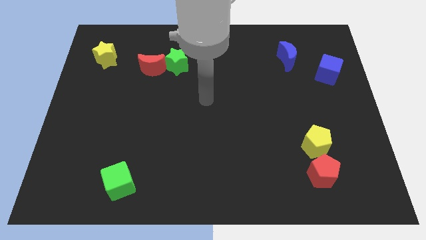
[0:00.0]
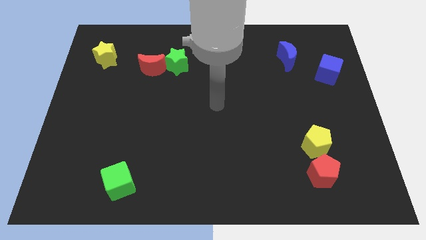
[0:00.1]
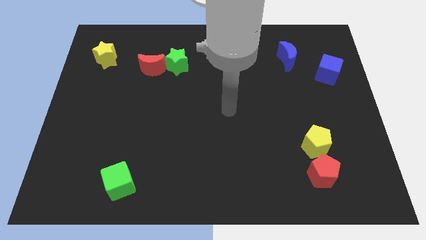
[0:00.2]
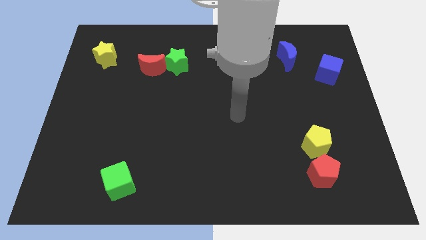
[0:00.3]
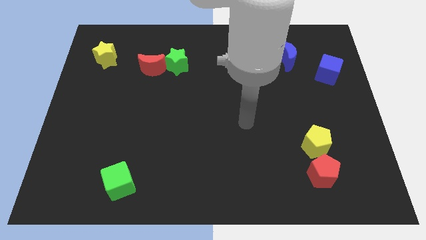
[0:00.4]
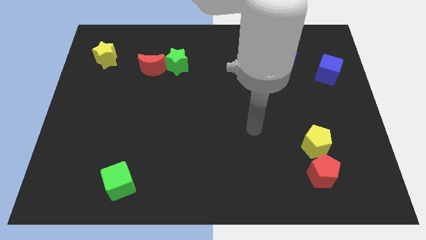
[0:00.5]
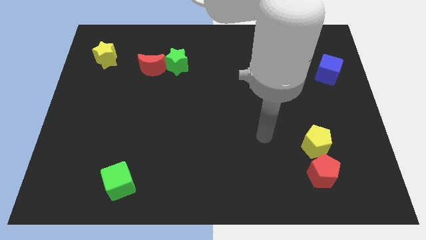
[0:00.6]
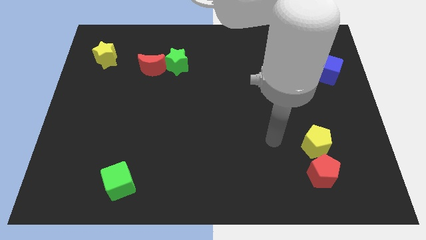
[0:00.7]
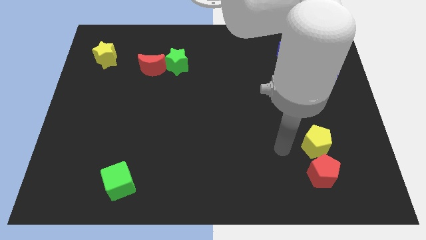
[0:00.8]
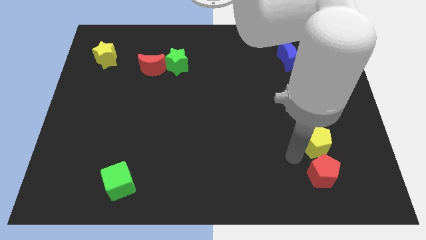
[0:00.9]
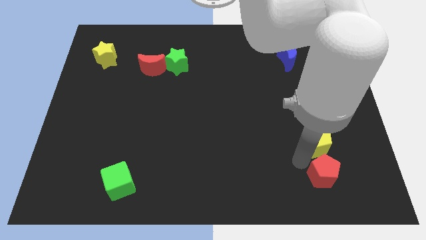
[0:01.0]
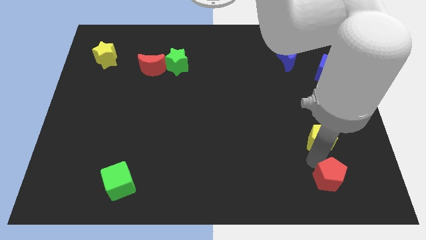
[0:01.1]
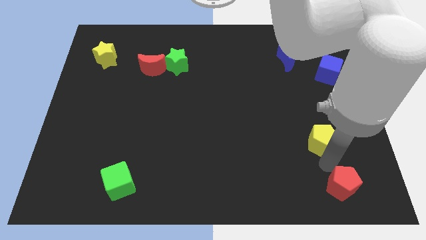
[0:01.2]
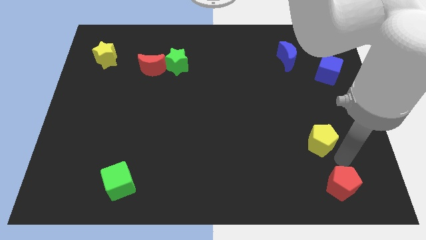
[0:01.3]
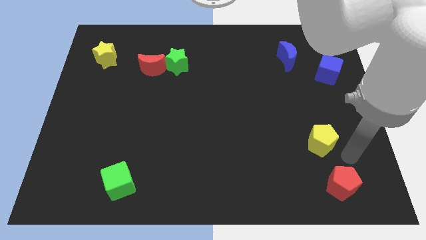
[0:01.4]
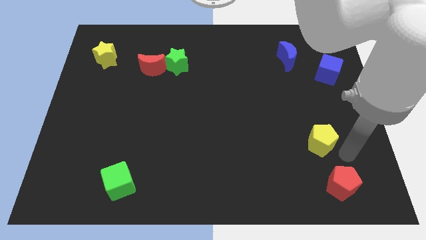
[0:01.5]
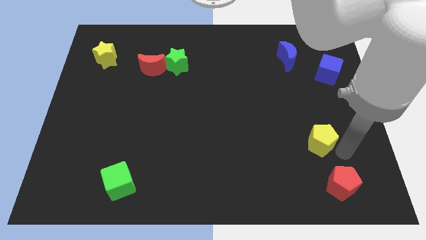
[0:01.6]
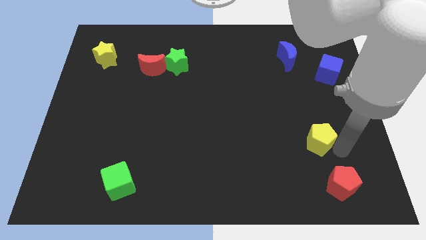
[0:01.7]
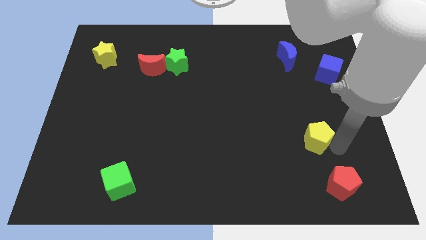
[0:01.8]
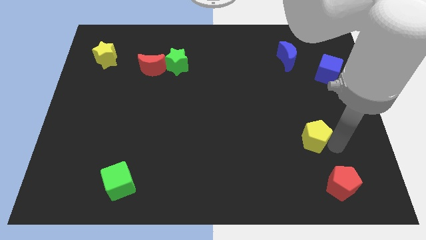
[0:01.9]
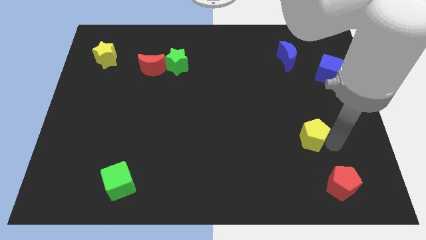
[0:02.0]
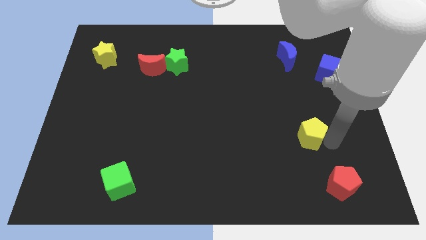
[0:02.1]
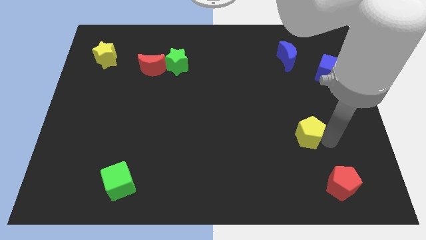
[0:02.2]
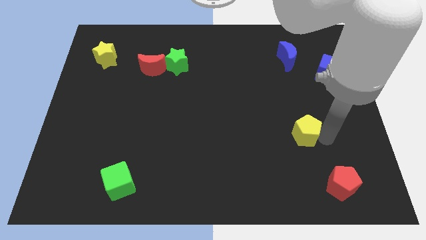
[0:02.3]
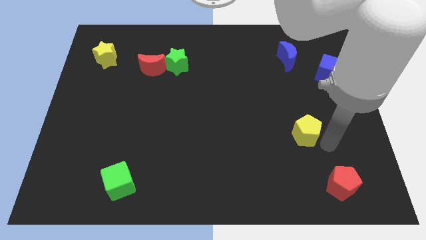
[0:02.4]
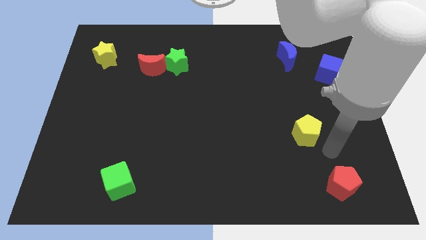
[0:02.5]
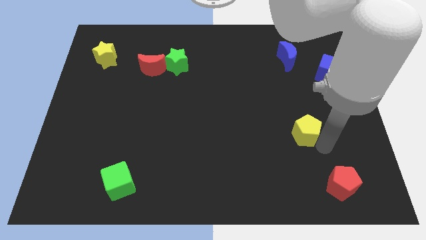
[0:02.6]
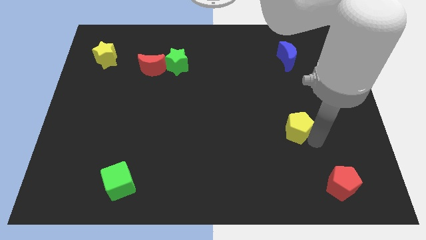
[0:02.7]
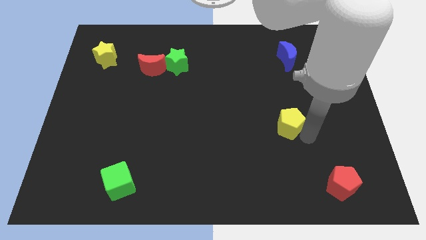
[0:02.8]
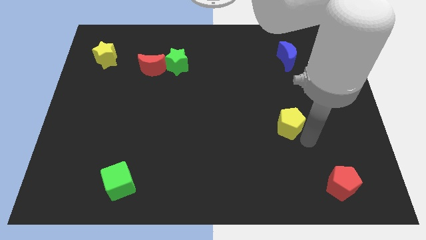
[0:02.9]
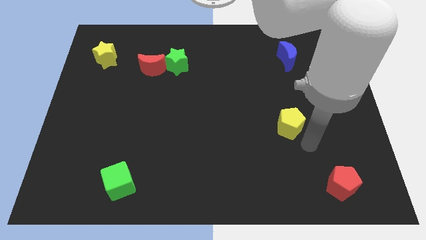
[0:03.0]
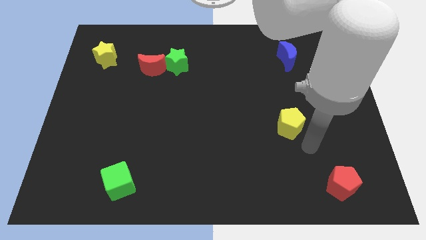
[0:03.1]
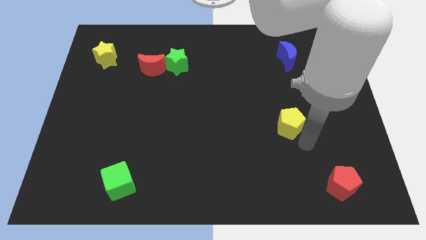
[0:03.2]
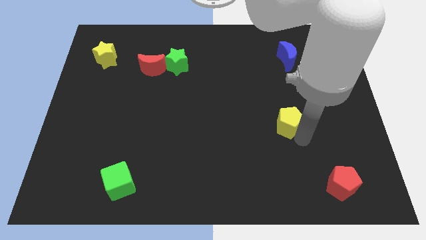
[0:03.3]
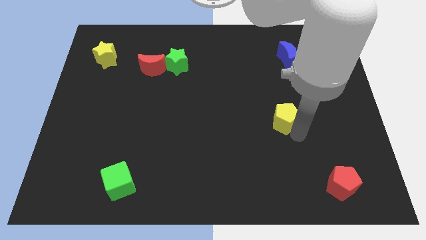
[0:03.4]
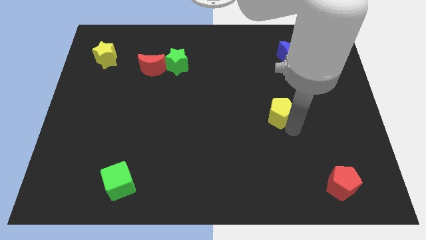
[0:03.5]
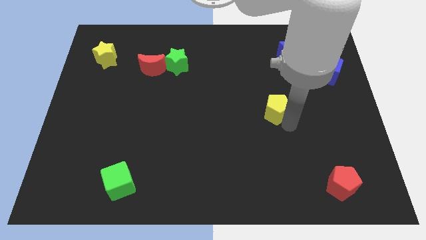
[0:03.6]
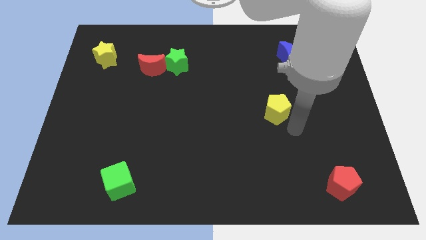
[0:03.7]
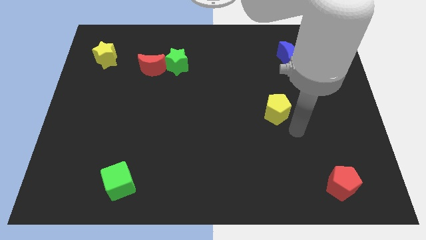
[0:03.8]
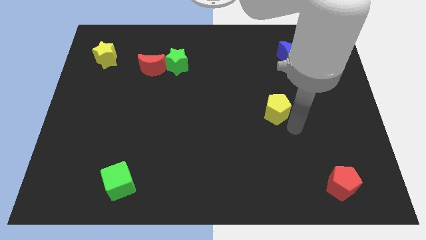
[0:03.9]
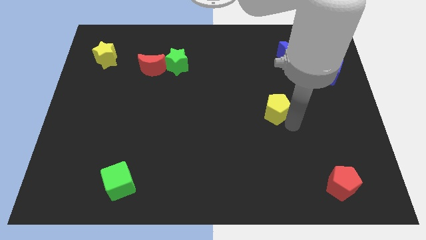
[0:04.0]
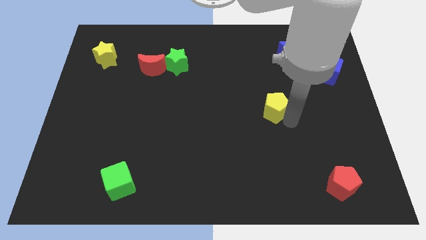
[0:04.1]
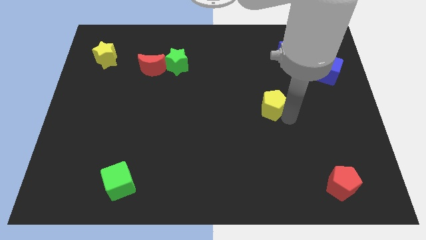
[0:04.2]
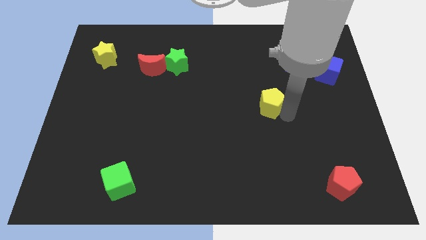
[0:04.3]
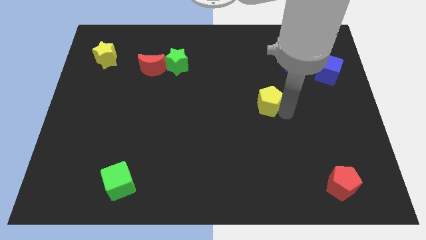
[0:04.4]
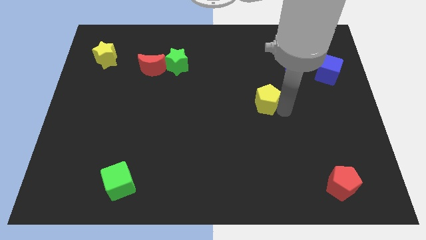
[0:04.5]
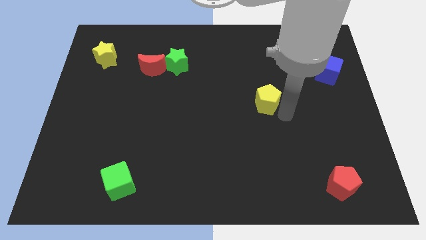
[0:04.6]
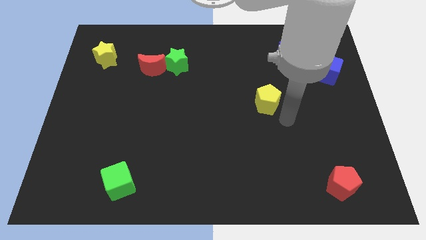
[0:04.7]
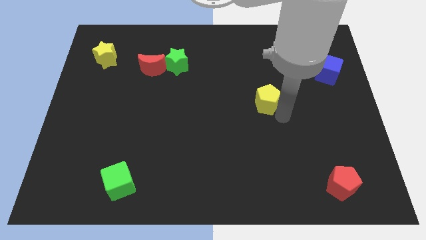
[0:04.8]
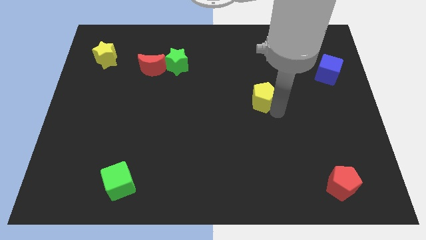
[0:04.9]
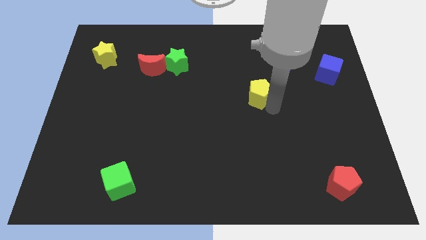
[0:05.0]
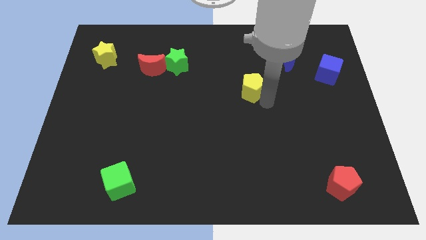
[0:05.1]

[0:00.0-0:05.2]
push the yellow pentagon upwards and then to the left

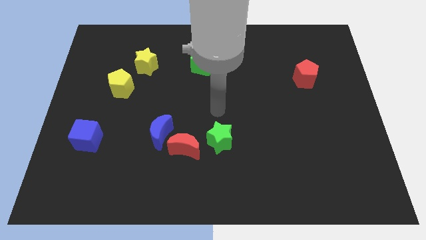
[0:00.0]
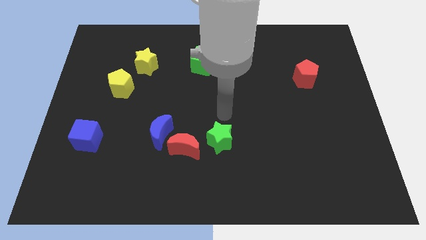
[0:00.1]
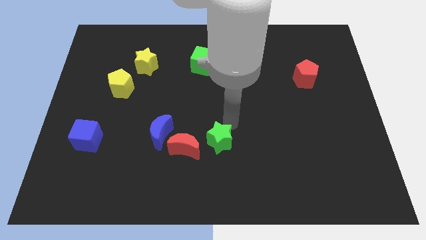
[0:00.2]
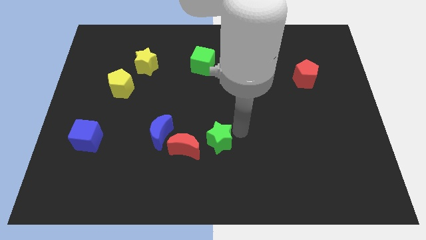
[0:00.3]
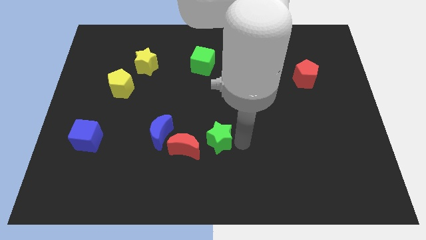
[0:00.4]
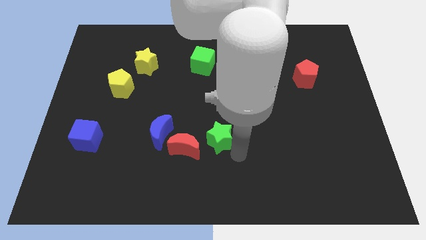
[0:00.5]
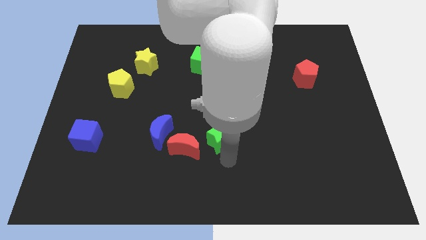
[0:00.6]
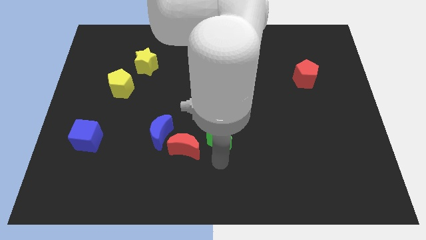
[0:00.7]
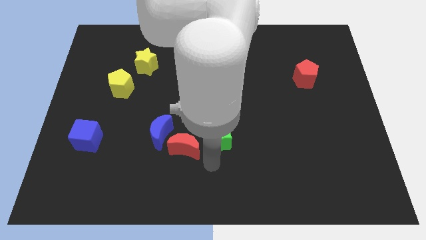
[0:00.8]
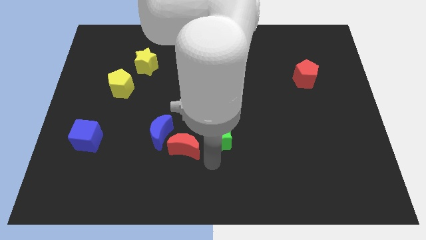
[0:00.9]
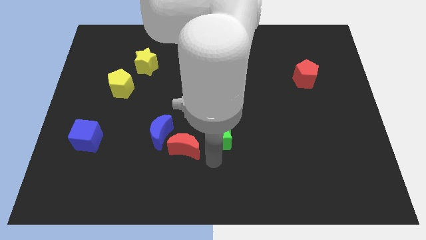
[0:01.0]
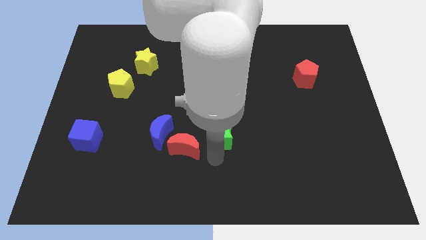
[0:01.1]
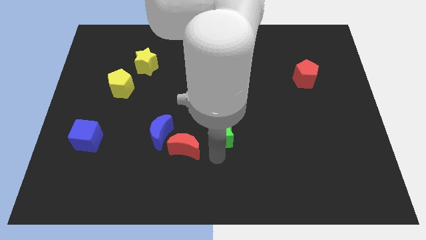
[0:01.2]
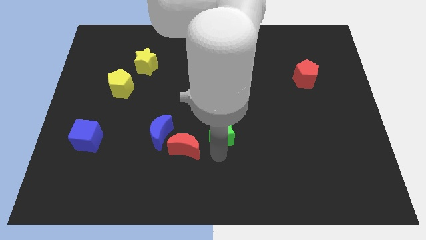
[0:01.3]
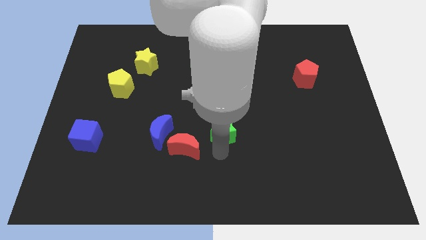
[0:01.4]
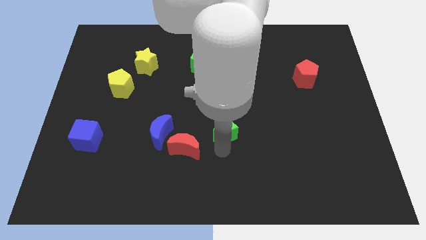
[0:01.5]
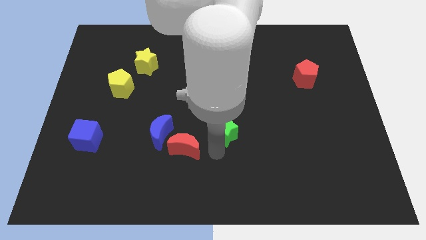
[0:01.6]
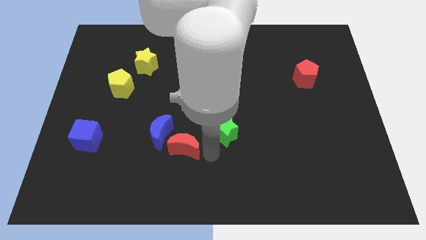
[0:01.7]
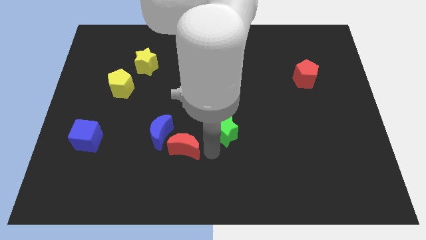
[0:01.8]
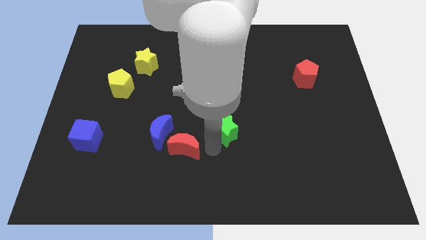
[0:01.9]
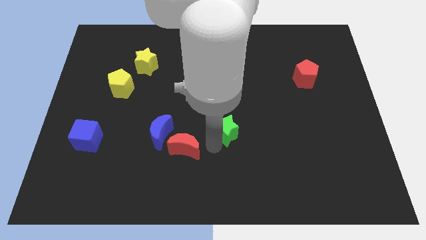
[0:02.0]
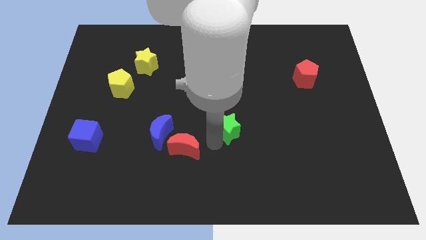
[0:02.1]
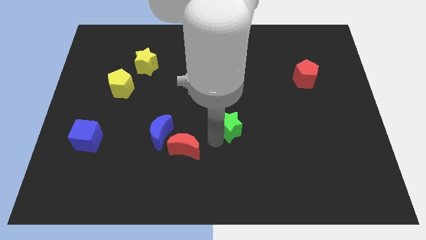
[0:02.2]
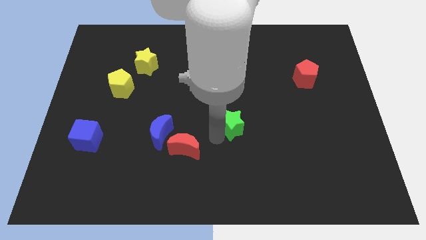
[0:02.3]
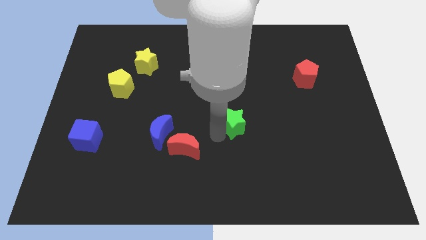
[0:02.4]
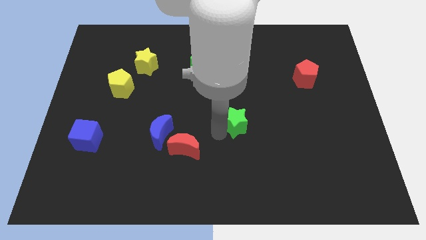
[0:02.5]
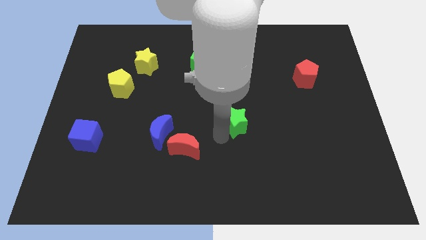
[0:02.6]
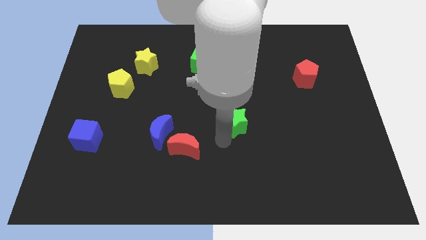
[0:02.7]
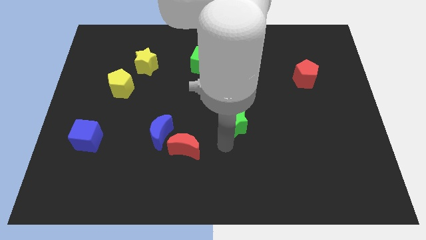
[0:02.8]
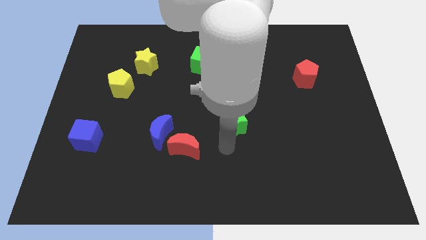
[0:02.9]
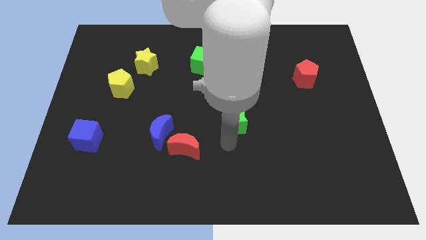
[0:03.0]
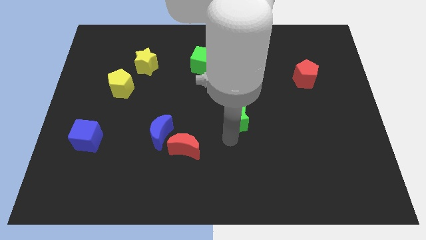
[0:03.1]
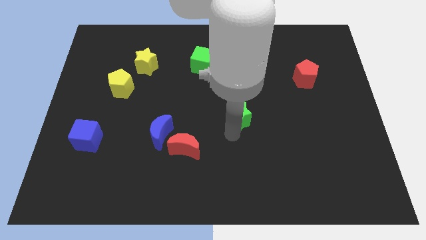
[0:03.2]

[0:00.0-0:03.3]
move the green star upwards and to the right diagonally a little
